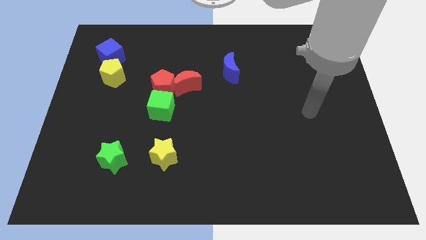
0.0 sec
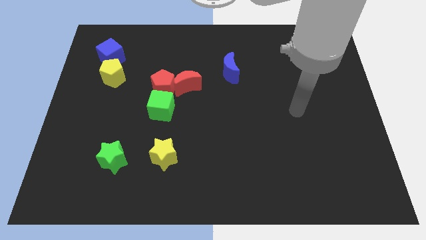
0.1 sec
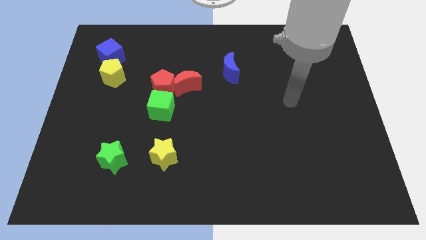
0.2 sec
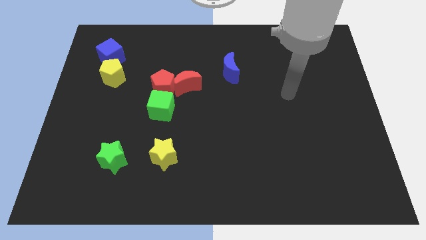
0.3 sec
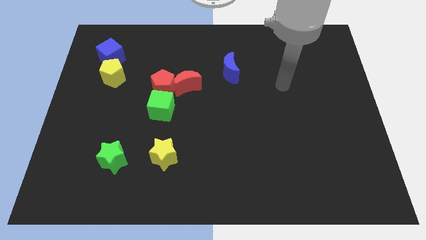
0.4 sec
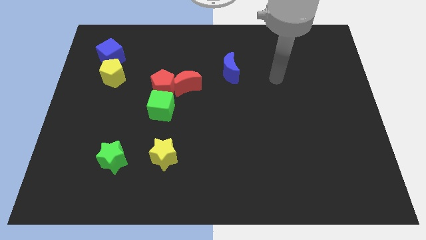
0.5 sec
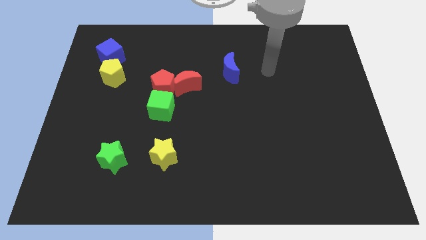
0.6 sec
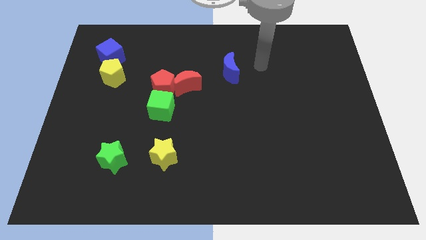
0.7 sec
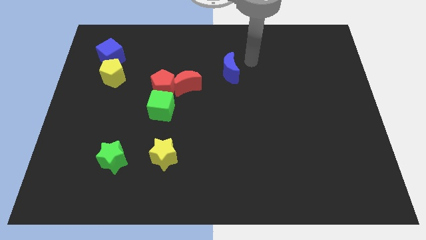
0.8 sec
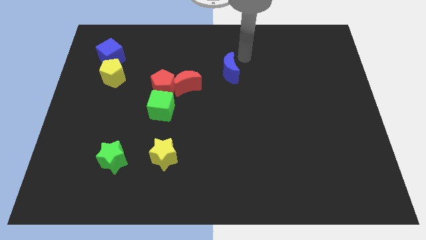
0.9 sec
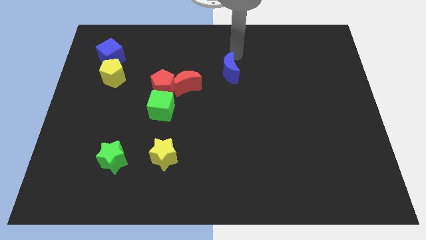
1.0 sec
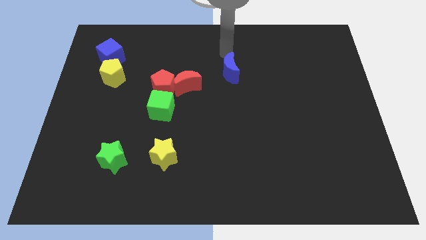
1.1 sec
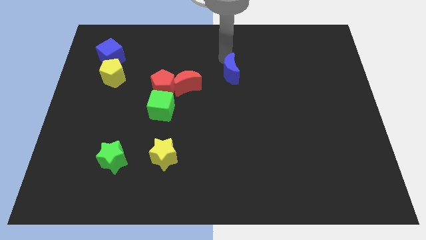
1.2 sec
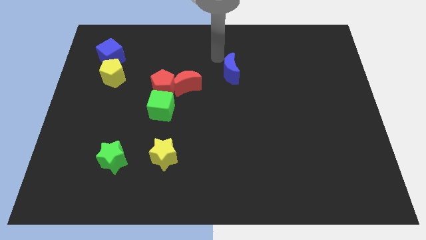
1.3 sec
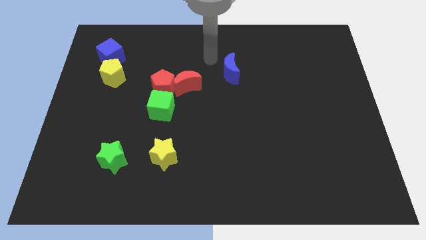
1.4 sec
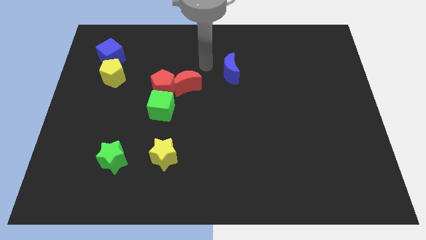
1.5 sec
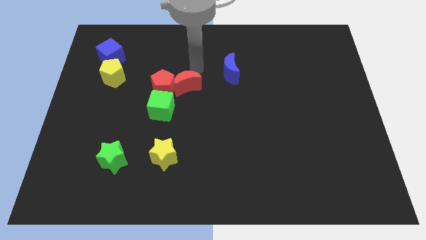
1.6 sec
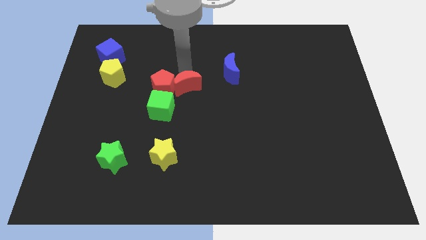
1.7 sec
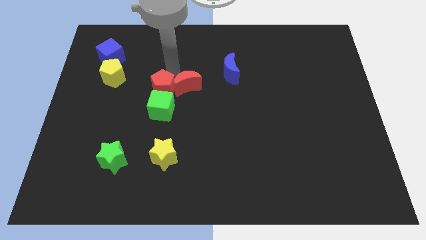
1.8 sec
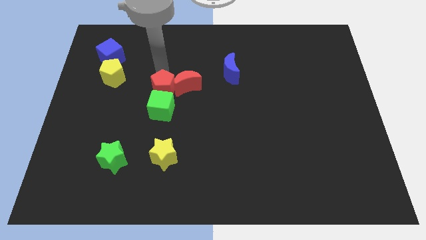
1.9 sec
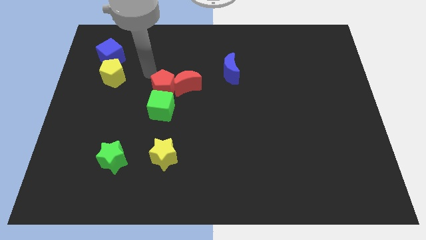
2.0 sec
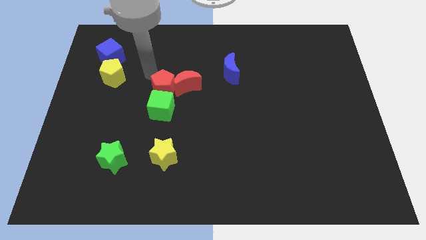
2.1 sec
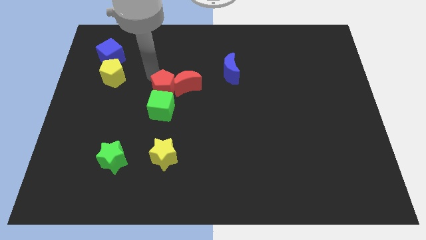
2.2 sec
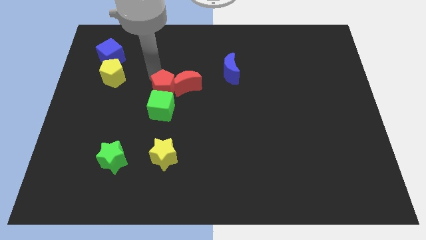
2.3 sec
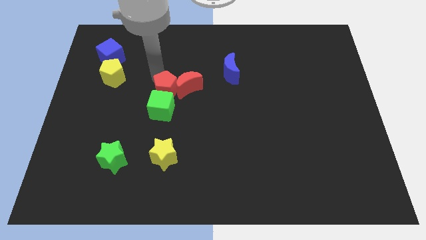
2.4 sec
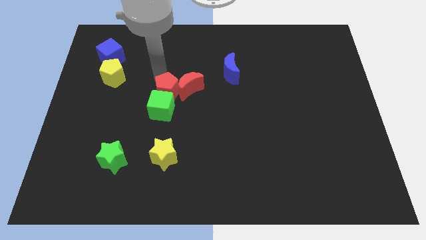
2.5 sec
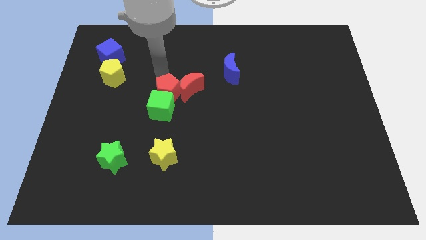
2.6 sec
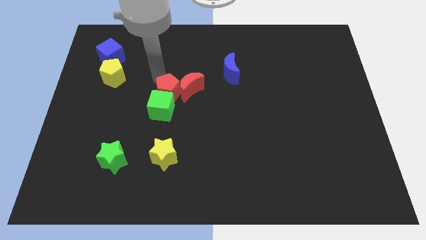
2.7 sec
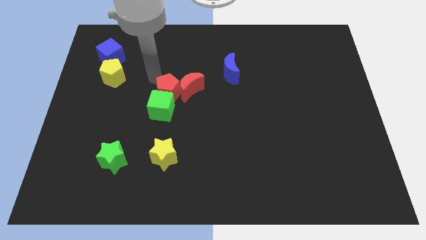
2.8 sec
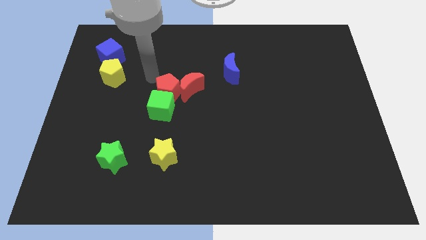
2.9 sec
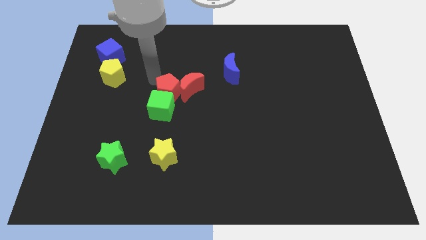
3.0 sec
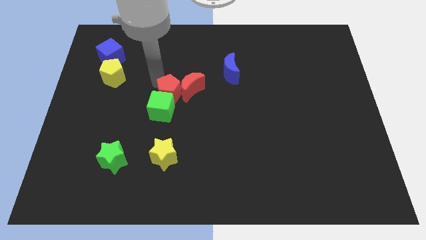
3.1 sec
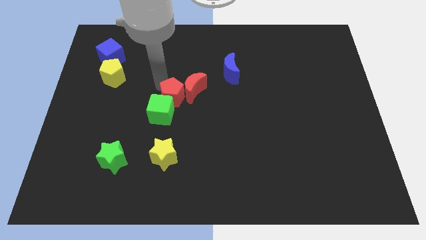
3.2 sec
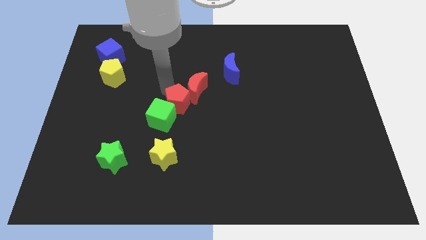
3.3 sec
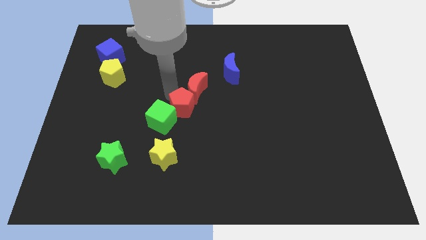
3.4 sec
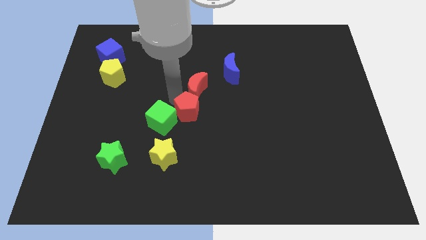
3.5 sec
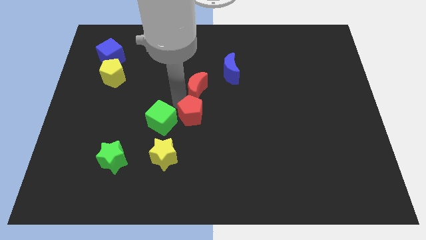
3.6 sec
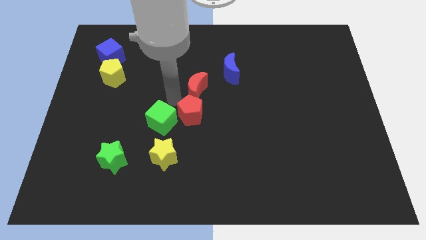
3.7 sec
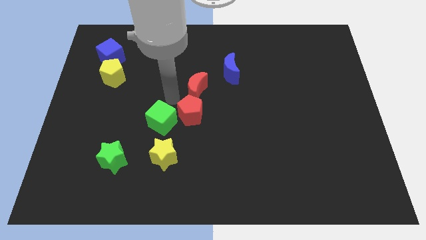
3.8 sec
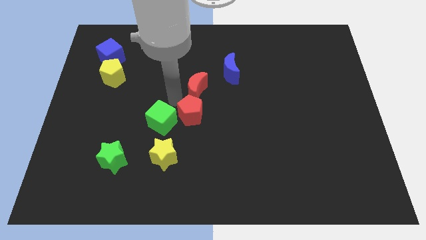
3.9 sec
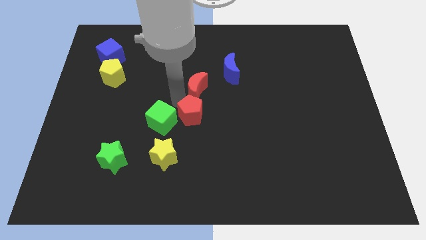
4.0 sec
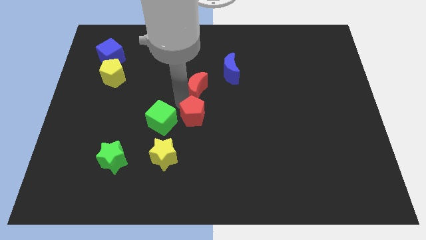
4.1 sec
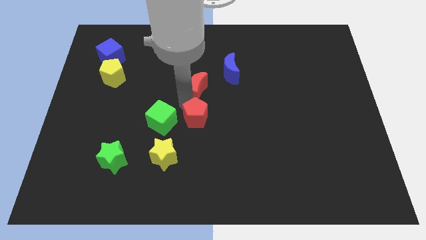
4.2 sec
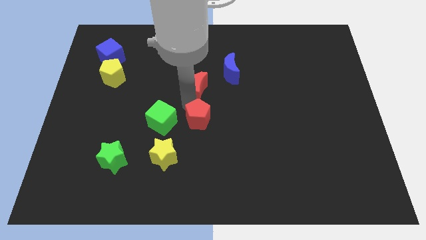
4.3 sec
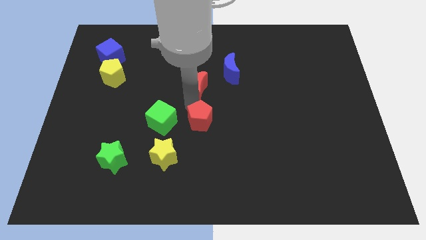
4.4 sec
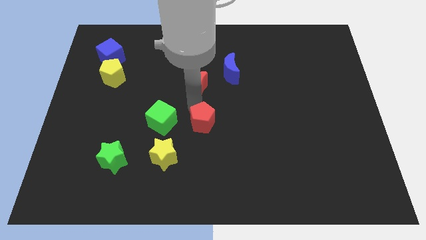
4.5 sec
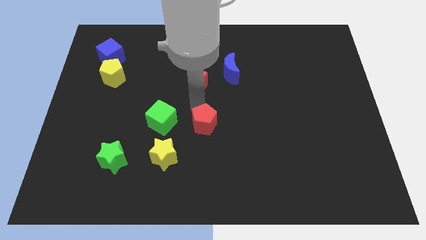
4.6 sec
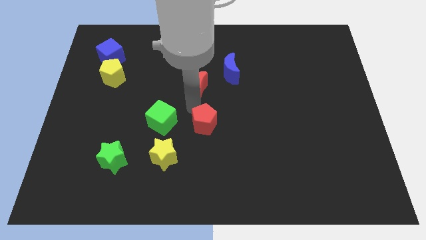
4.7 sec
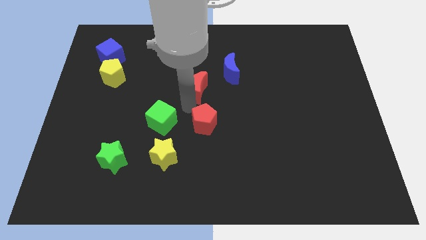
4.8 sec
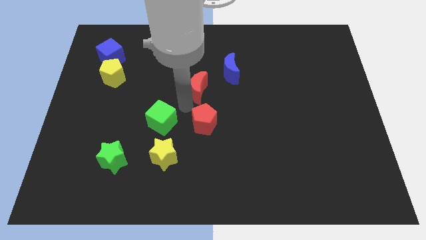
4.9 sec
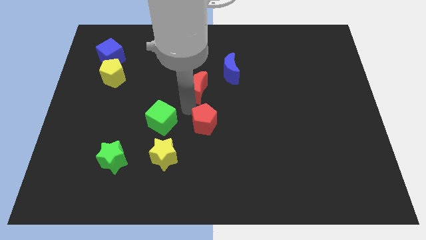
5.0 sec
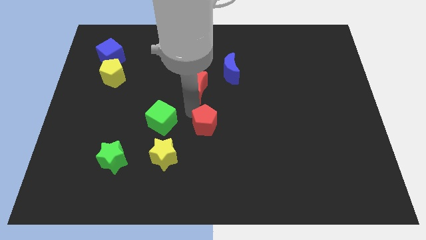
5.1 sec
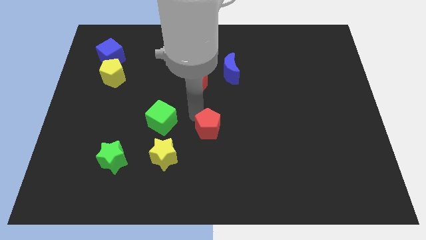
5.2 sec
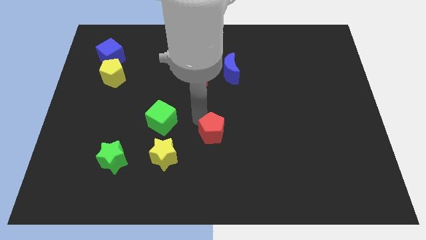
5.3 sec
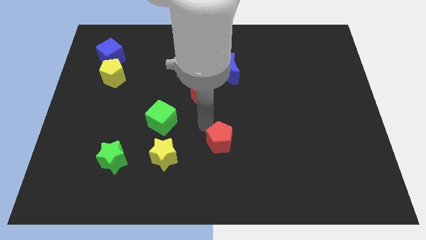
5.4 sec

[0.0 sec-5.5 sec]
move the red pentagon down and to the right

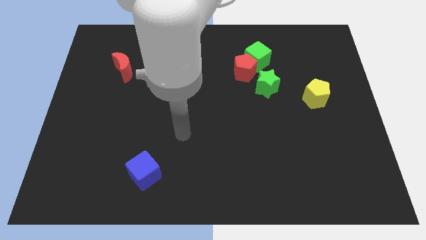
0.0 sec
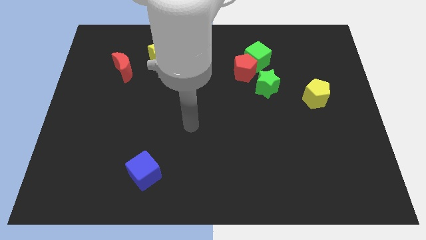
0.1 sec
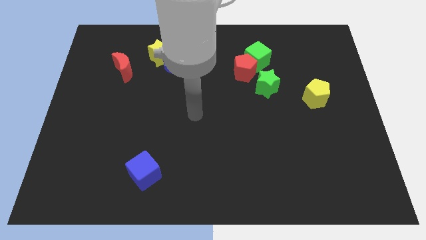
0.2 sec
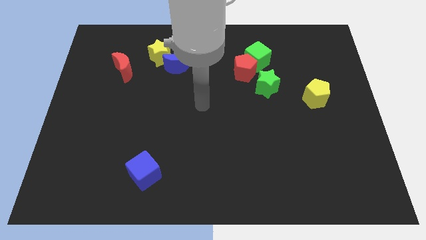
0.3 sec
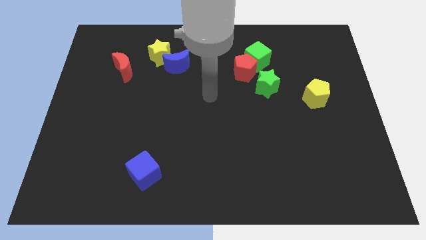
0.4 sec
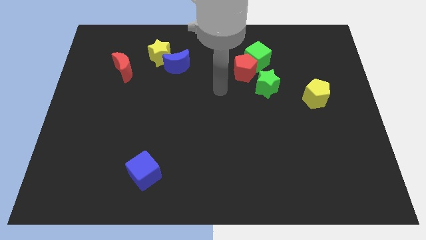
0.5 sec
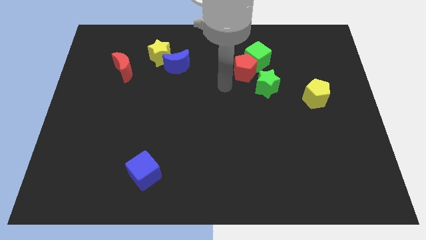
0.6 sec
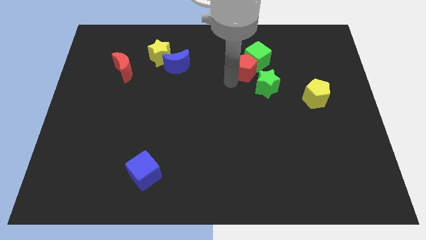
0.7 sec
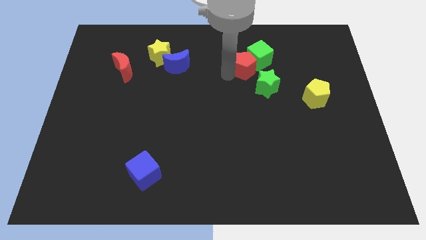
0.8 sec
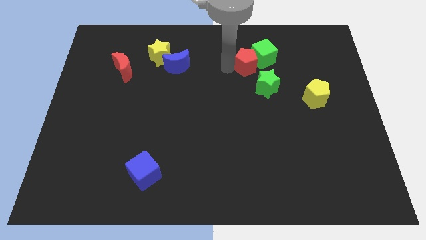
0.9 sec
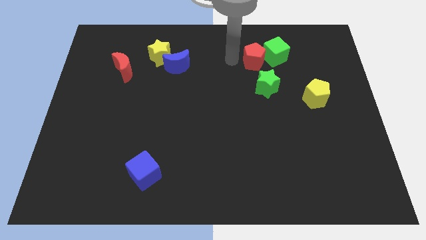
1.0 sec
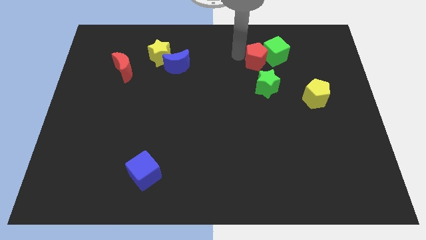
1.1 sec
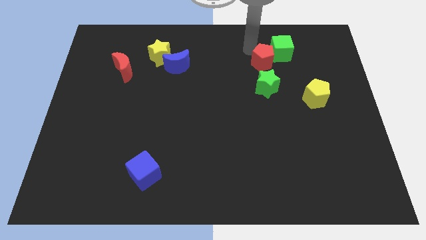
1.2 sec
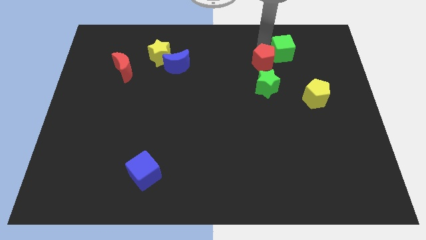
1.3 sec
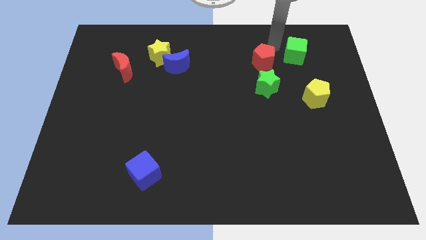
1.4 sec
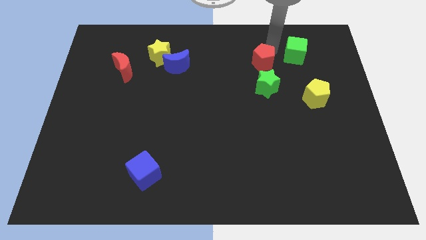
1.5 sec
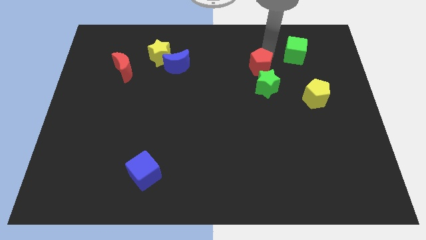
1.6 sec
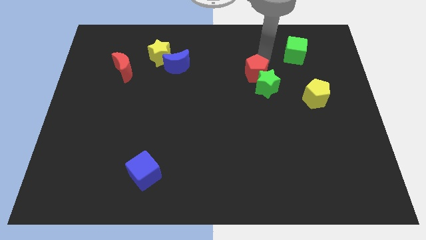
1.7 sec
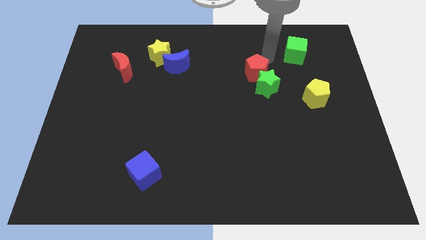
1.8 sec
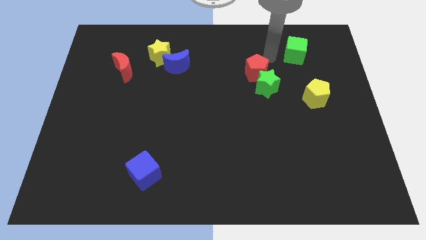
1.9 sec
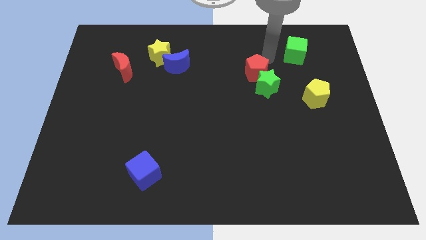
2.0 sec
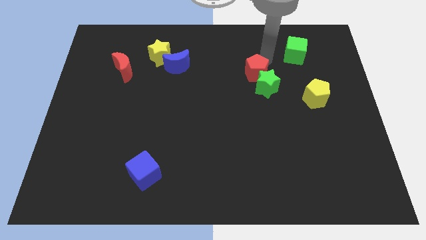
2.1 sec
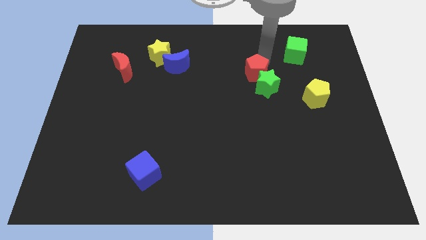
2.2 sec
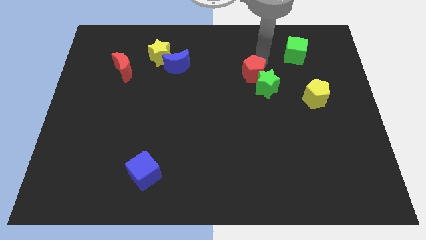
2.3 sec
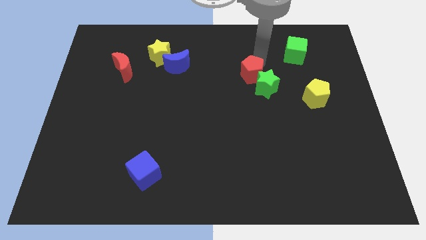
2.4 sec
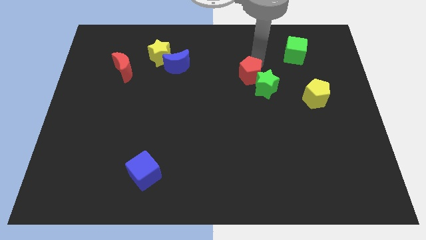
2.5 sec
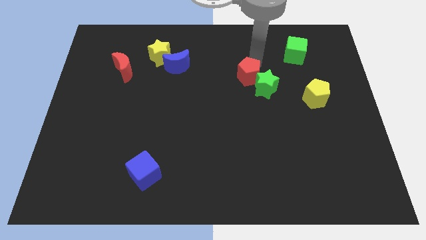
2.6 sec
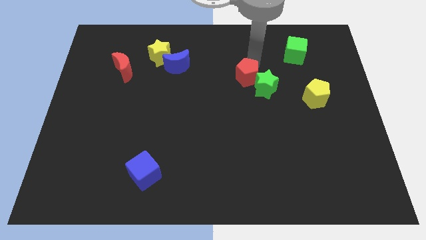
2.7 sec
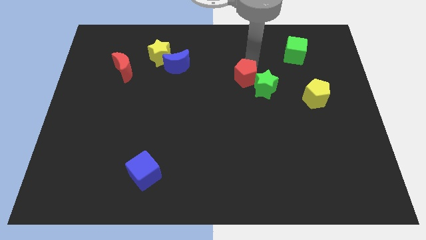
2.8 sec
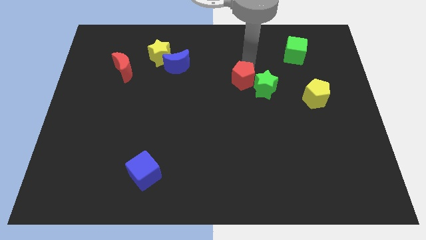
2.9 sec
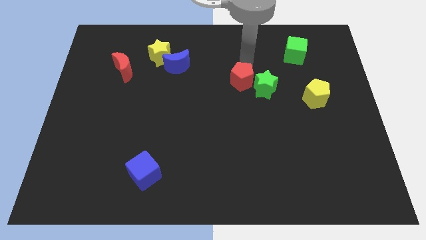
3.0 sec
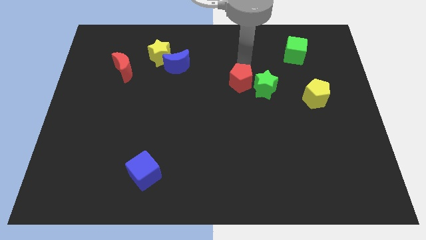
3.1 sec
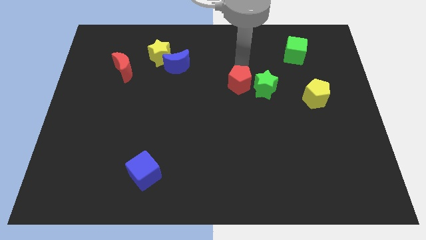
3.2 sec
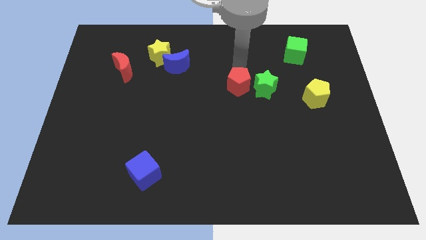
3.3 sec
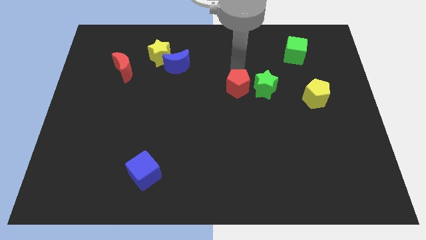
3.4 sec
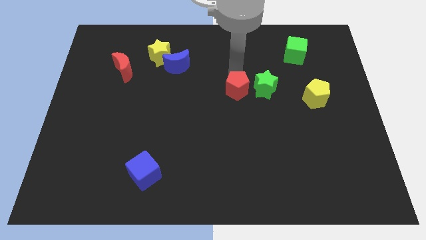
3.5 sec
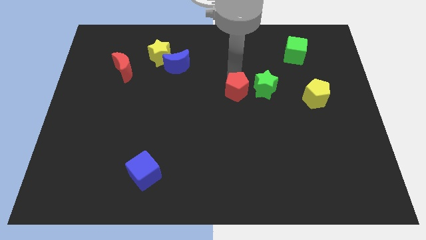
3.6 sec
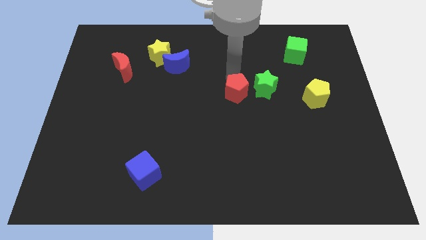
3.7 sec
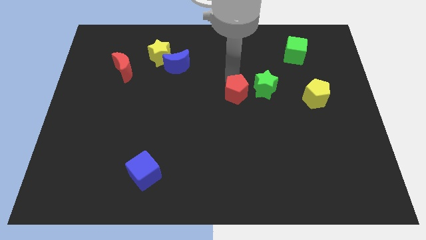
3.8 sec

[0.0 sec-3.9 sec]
move the red pentagon slightly downwards
